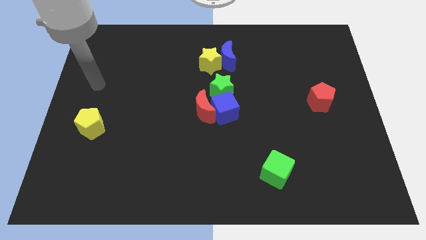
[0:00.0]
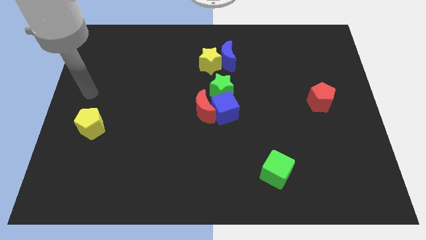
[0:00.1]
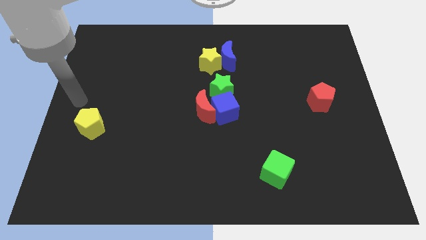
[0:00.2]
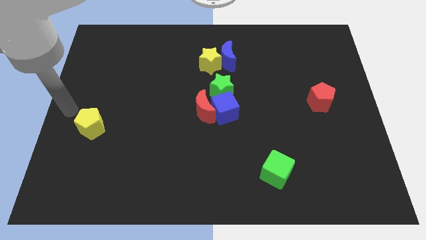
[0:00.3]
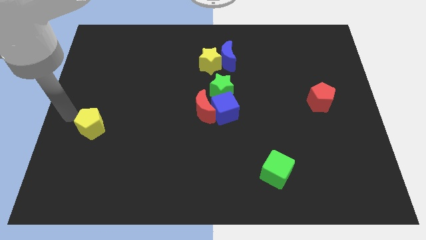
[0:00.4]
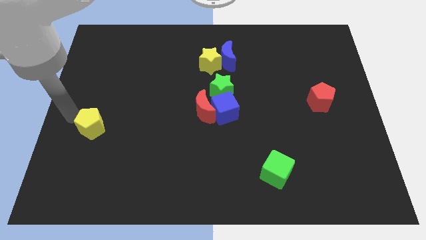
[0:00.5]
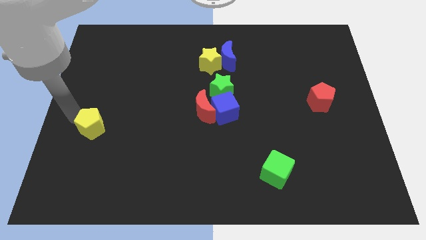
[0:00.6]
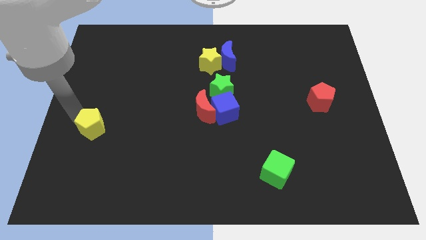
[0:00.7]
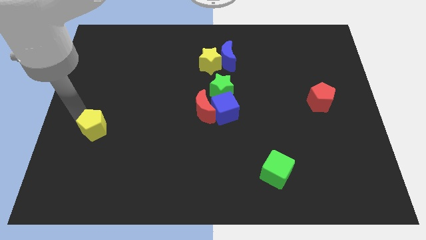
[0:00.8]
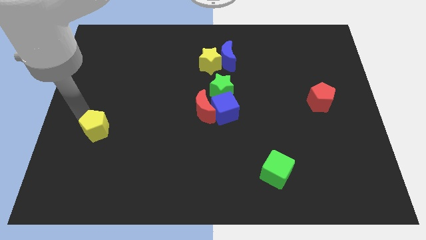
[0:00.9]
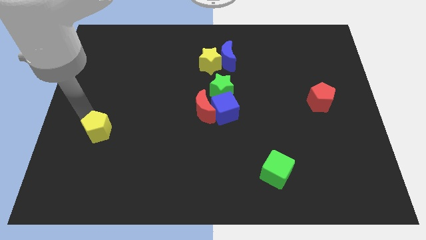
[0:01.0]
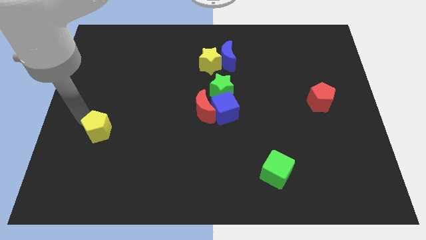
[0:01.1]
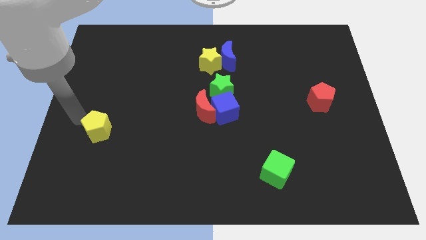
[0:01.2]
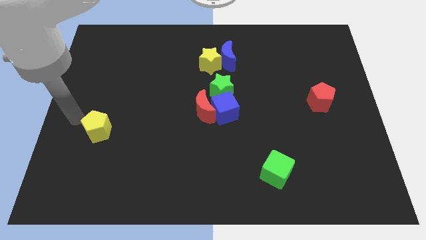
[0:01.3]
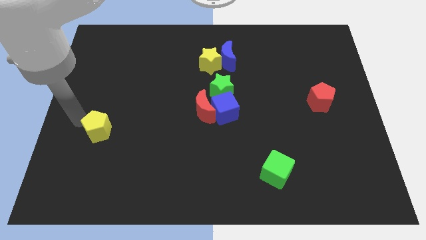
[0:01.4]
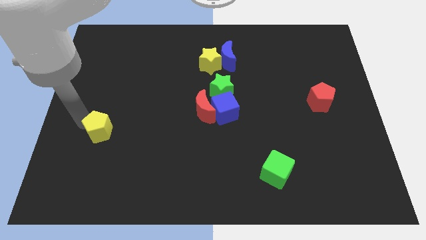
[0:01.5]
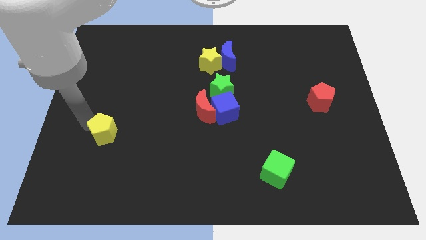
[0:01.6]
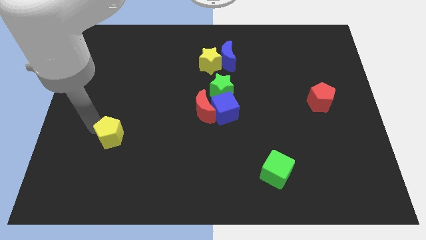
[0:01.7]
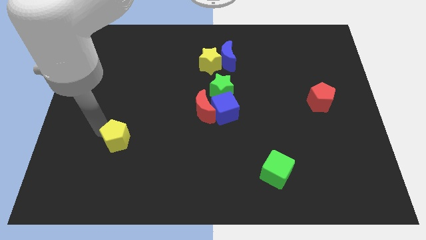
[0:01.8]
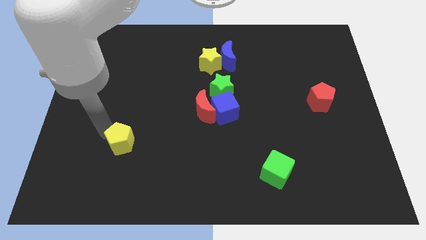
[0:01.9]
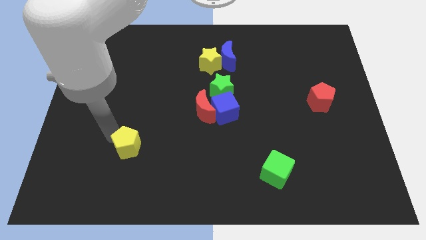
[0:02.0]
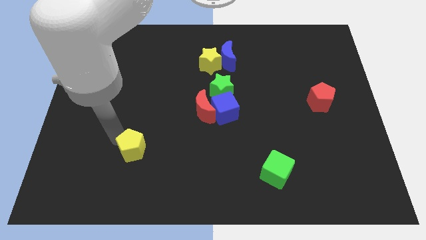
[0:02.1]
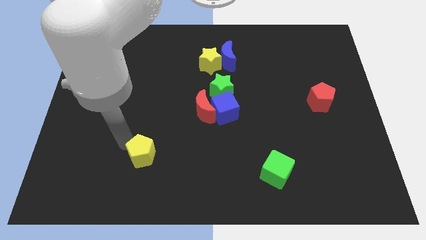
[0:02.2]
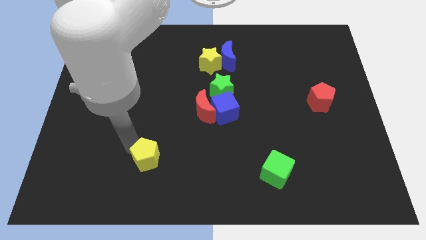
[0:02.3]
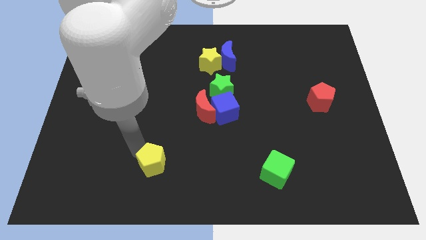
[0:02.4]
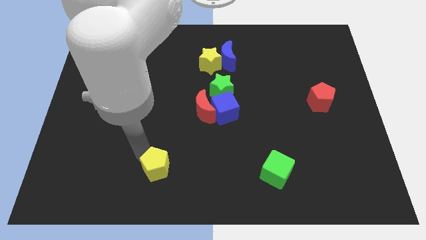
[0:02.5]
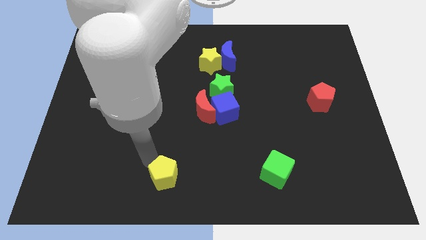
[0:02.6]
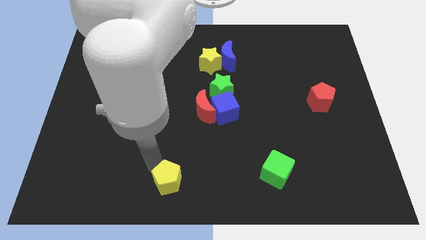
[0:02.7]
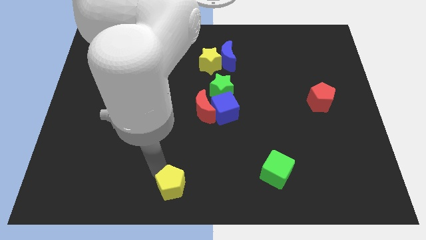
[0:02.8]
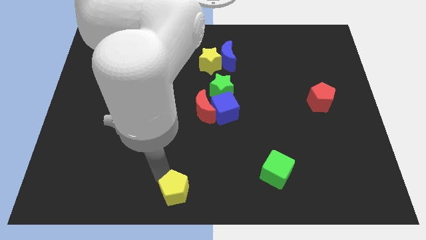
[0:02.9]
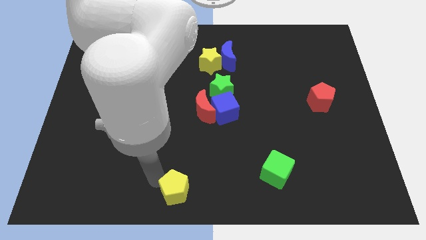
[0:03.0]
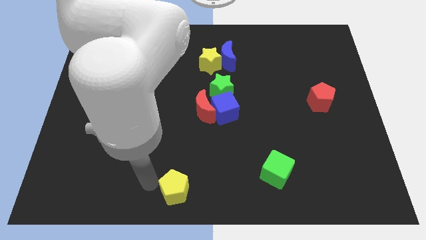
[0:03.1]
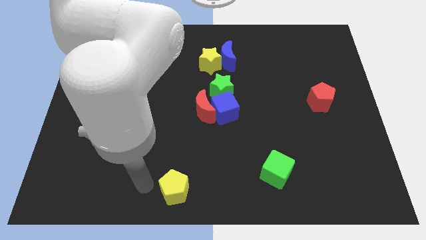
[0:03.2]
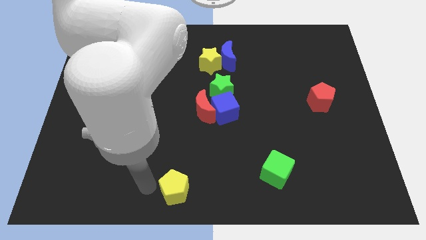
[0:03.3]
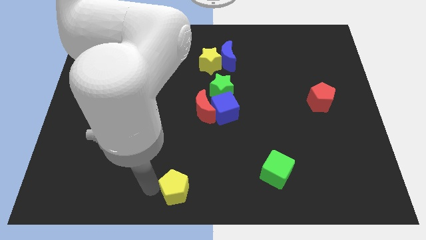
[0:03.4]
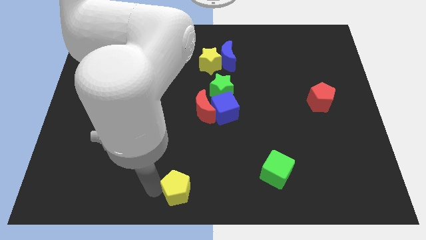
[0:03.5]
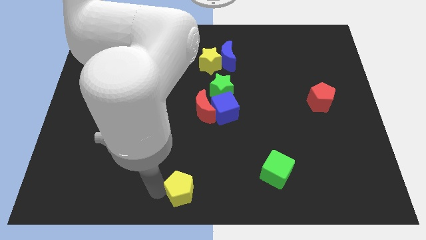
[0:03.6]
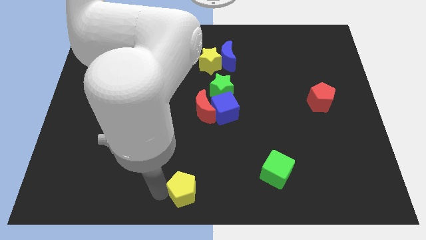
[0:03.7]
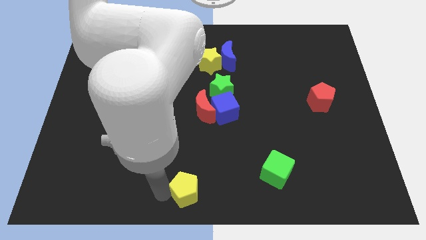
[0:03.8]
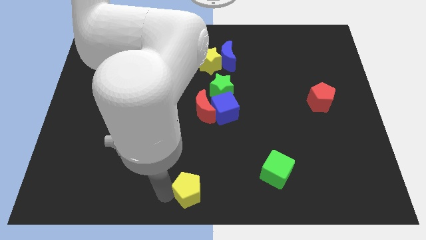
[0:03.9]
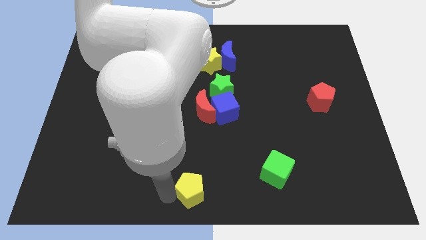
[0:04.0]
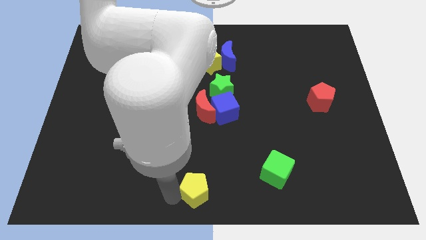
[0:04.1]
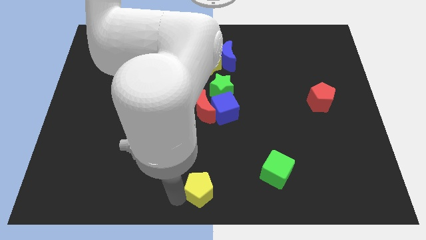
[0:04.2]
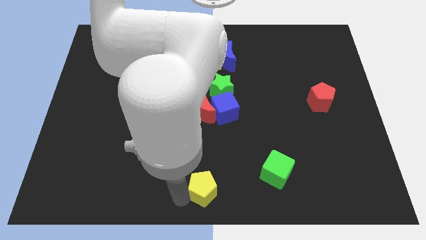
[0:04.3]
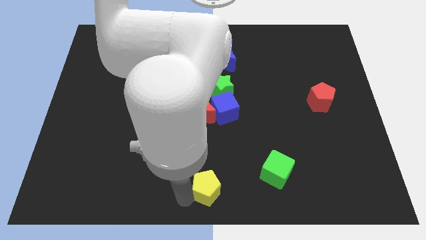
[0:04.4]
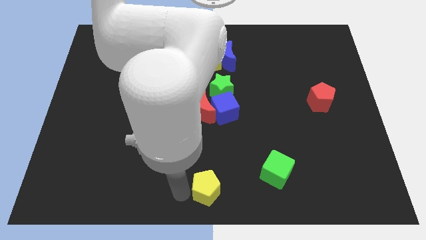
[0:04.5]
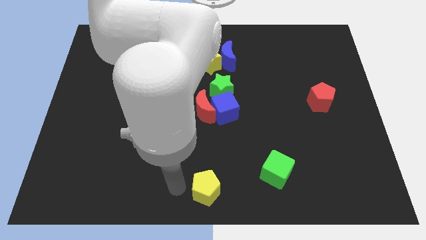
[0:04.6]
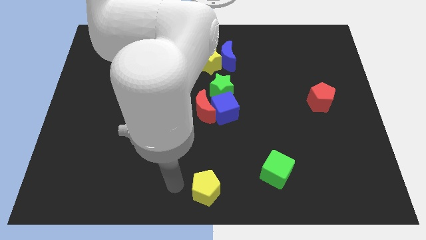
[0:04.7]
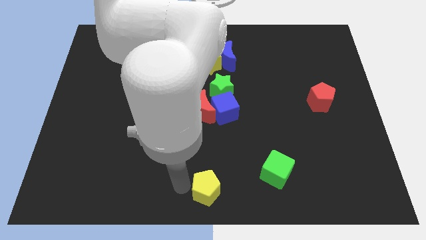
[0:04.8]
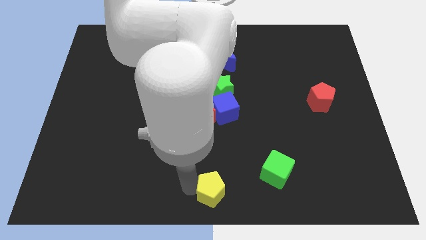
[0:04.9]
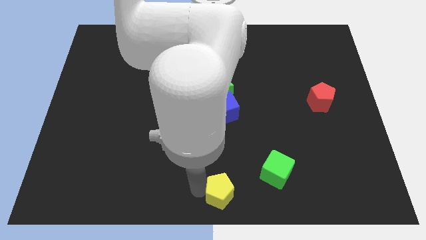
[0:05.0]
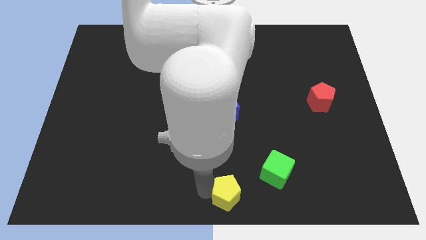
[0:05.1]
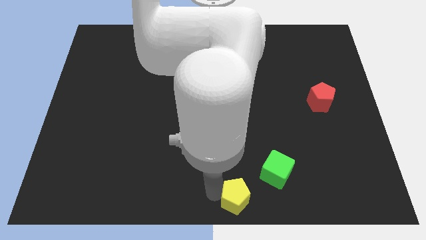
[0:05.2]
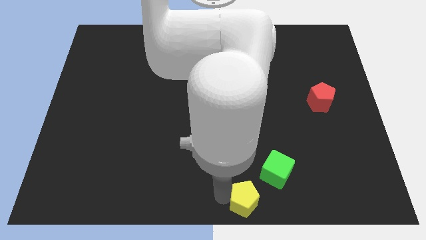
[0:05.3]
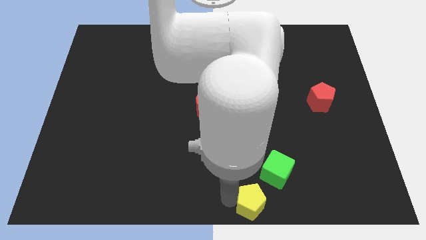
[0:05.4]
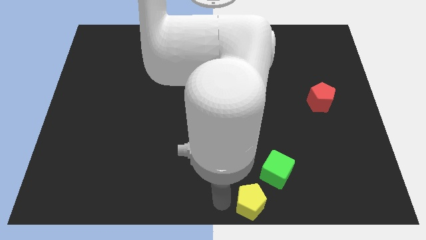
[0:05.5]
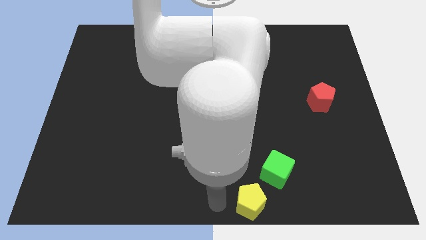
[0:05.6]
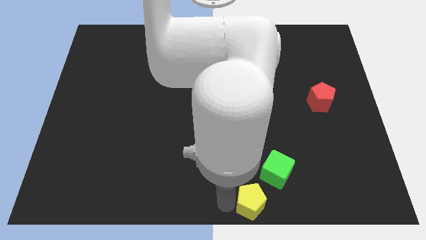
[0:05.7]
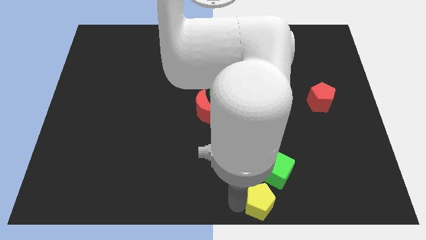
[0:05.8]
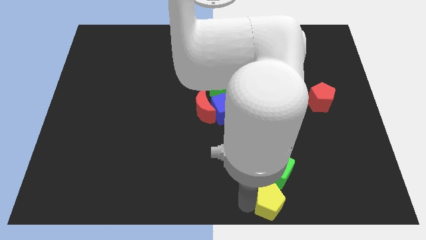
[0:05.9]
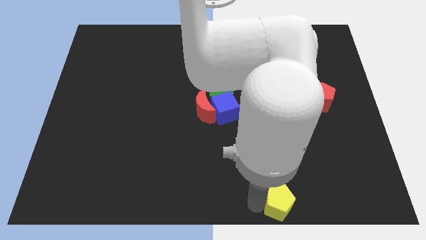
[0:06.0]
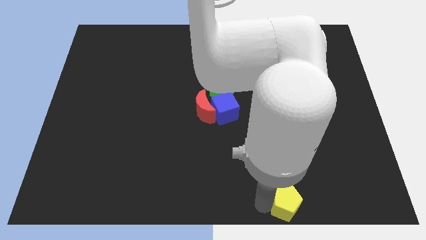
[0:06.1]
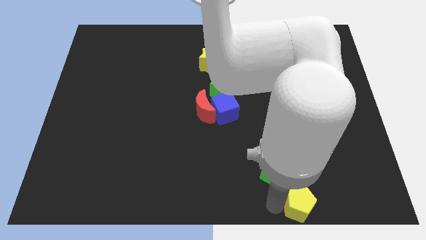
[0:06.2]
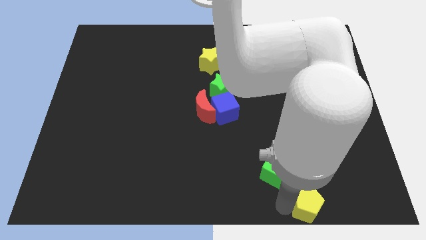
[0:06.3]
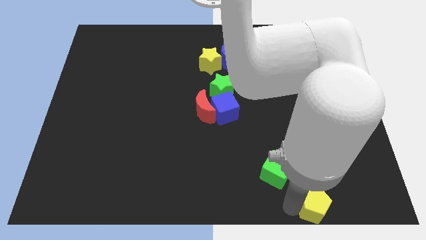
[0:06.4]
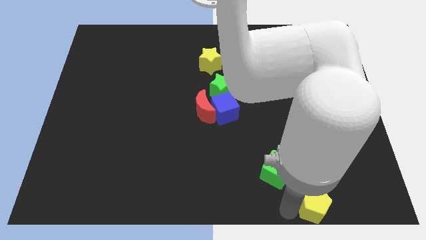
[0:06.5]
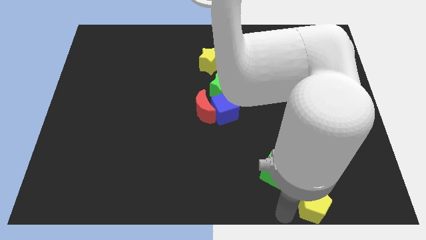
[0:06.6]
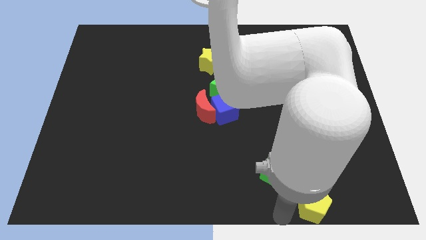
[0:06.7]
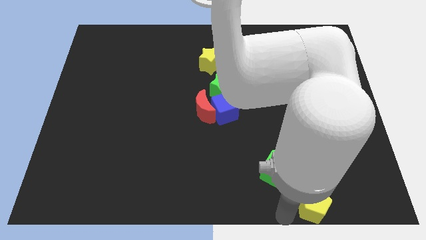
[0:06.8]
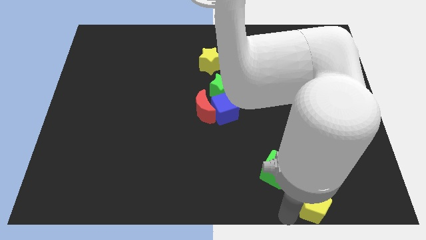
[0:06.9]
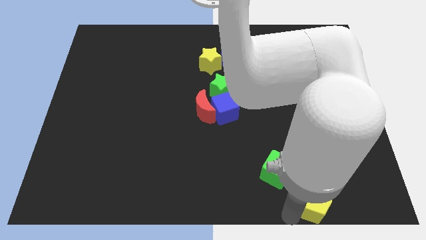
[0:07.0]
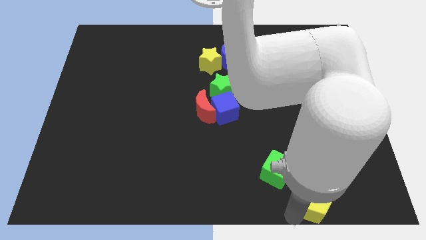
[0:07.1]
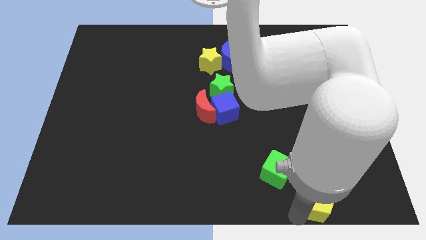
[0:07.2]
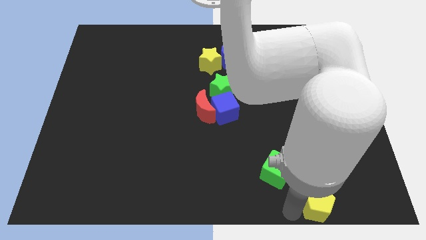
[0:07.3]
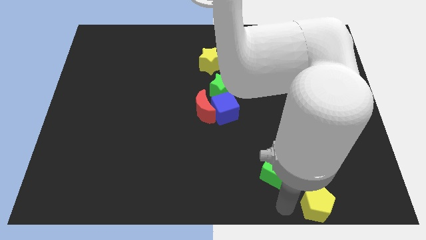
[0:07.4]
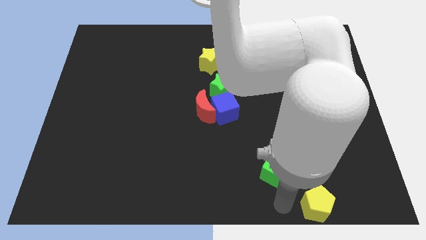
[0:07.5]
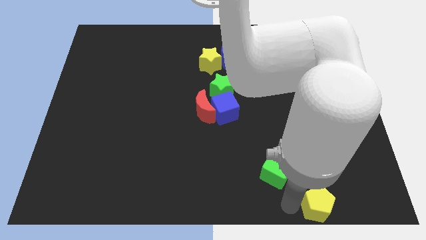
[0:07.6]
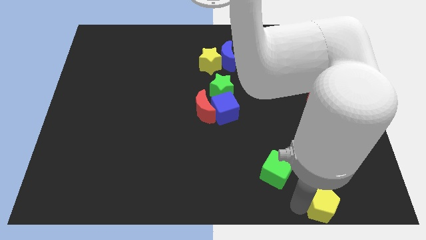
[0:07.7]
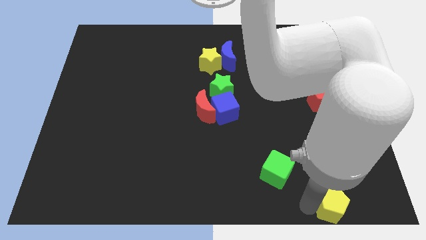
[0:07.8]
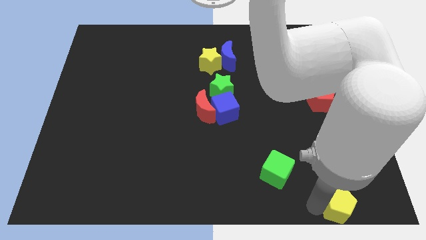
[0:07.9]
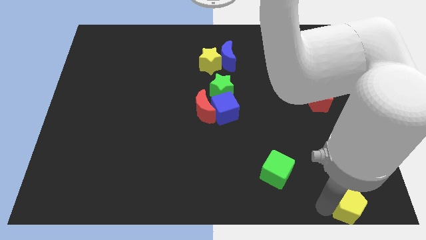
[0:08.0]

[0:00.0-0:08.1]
slide the yellow pentagon to the bottom right of the board
